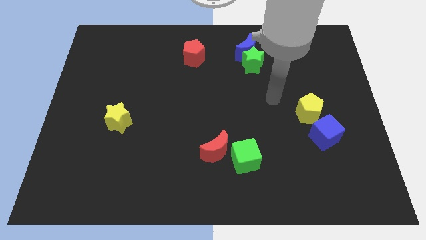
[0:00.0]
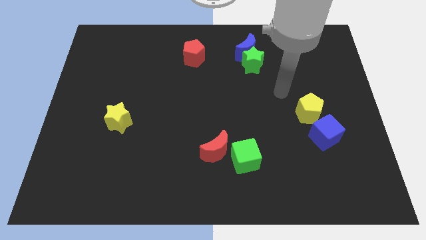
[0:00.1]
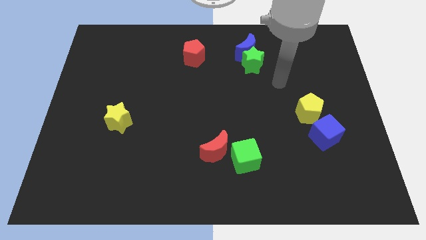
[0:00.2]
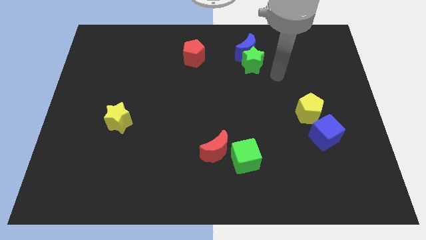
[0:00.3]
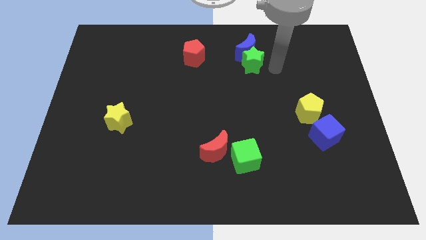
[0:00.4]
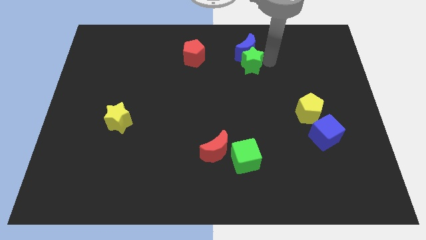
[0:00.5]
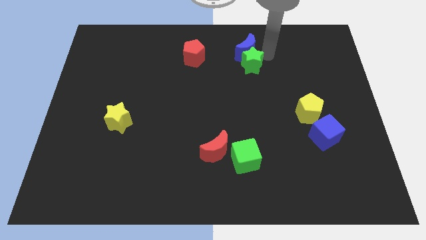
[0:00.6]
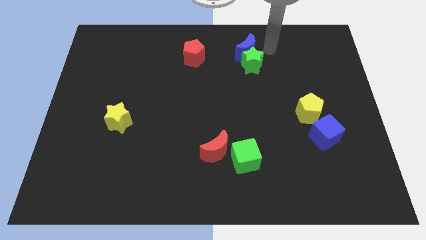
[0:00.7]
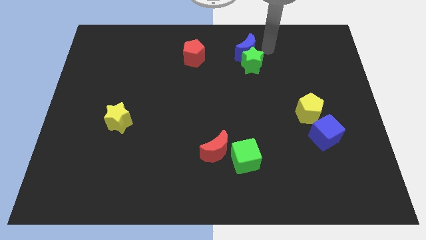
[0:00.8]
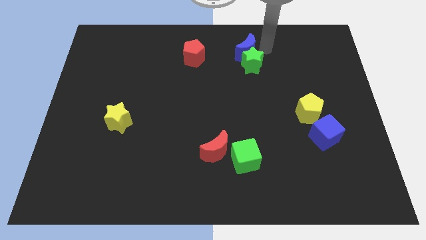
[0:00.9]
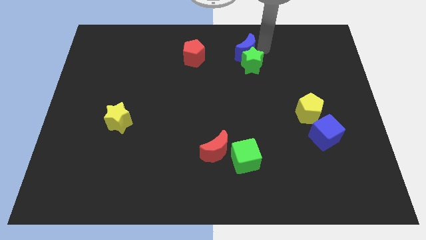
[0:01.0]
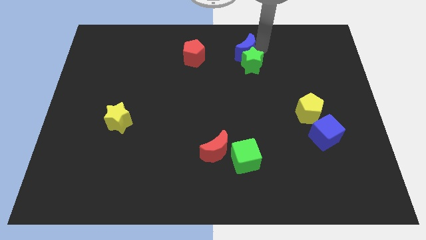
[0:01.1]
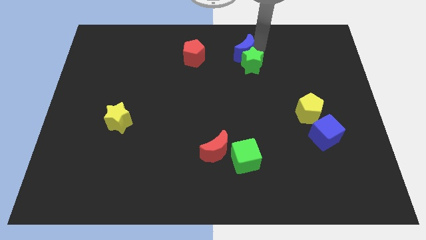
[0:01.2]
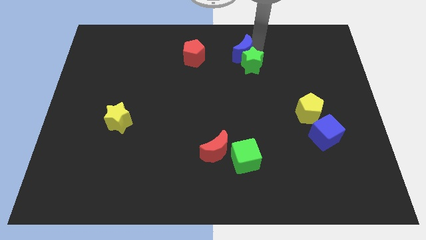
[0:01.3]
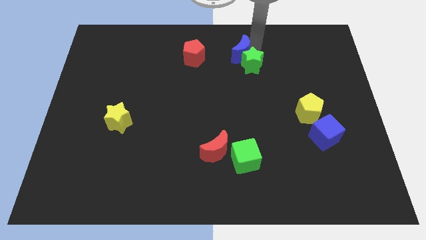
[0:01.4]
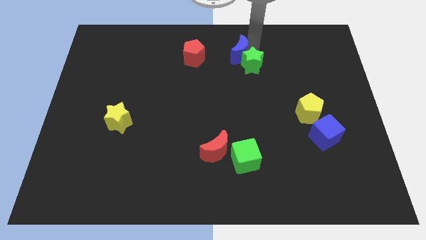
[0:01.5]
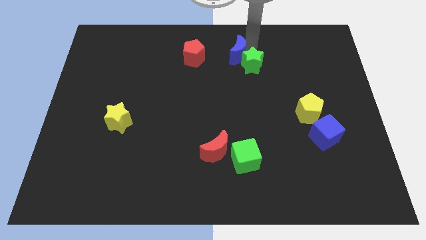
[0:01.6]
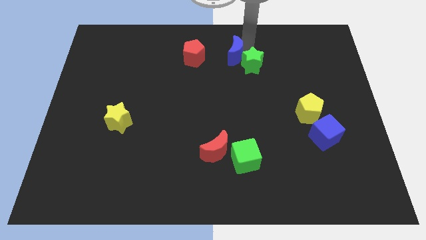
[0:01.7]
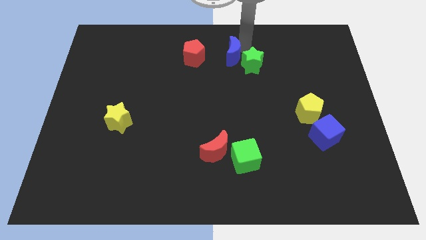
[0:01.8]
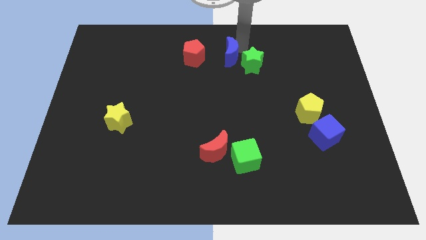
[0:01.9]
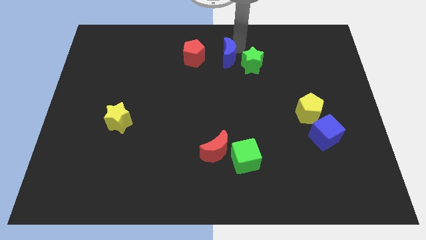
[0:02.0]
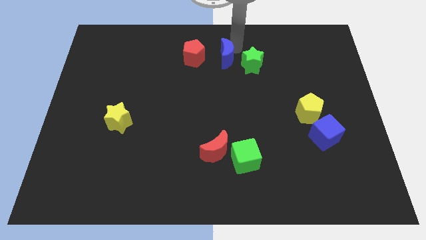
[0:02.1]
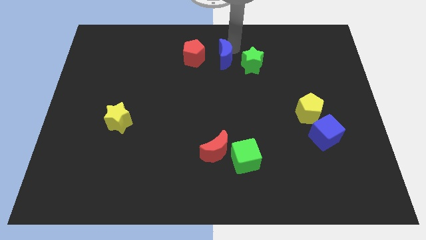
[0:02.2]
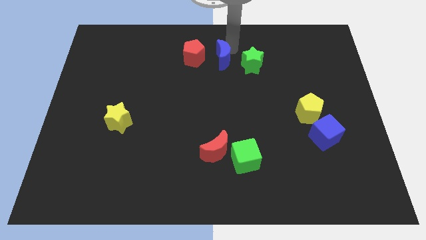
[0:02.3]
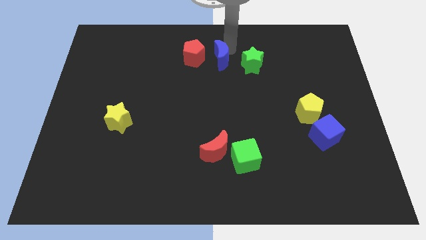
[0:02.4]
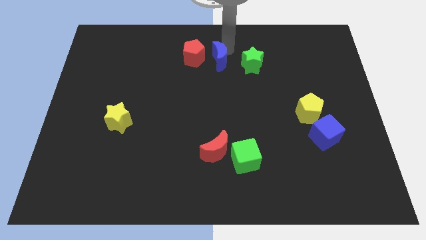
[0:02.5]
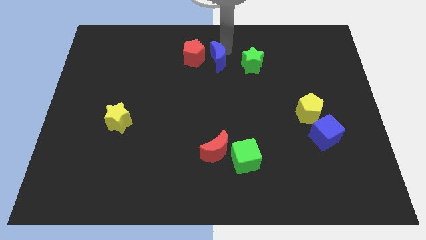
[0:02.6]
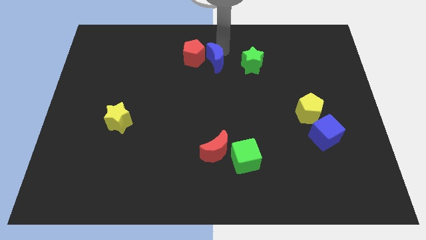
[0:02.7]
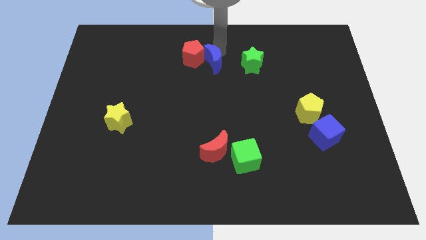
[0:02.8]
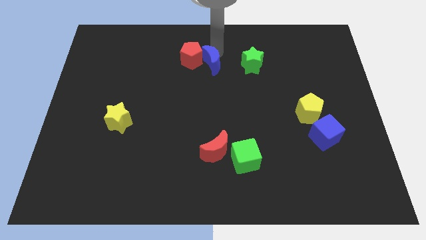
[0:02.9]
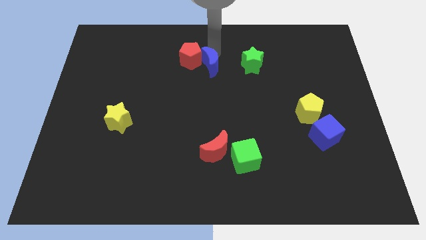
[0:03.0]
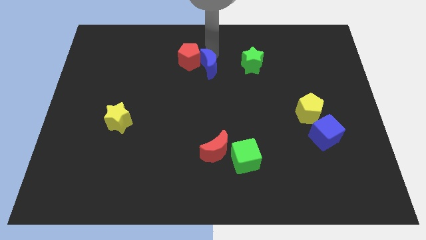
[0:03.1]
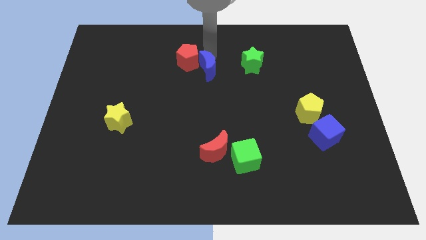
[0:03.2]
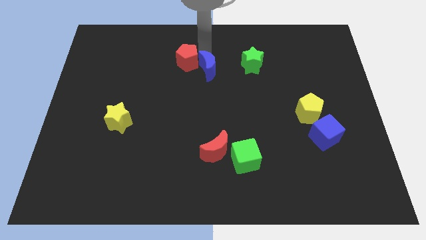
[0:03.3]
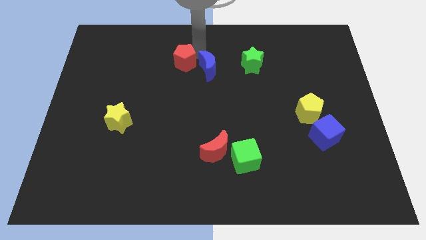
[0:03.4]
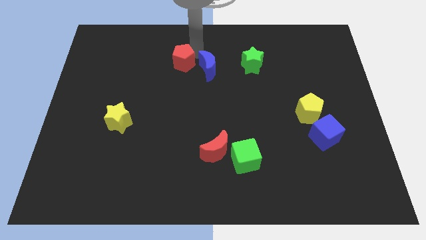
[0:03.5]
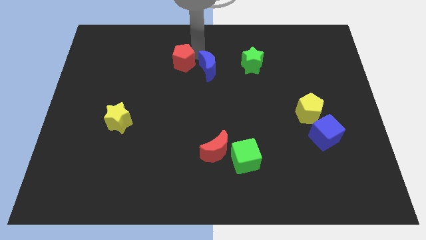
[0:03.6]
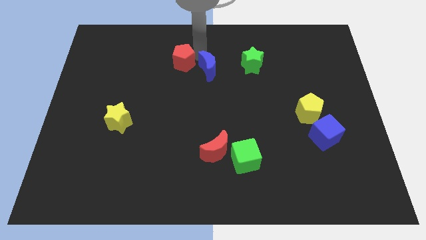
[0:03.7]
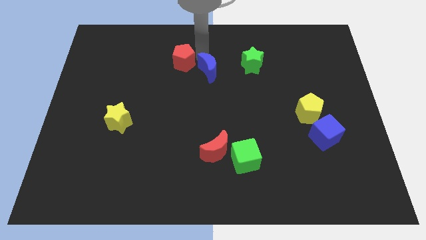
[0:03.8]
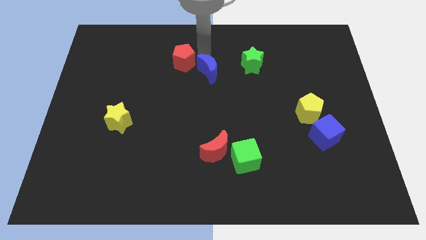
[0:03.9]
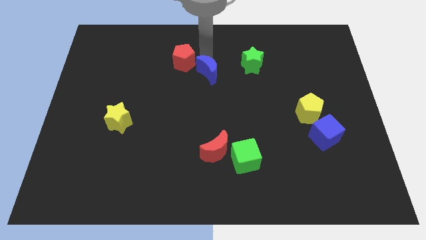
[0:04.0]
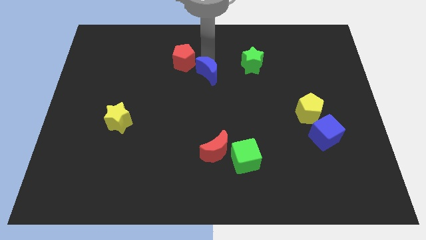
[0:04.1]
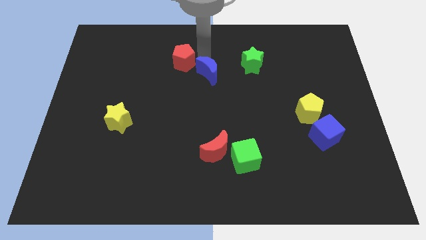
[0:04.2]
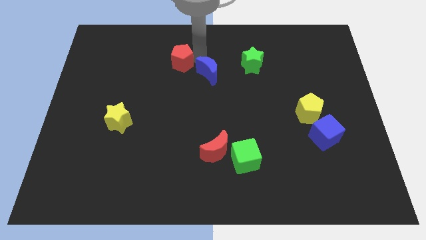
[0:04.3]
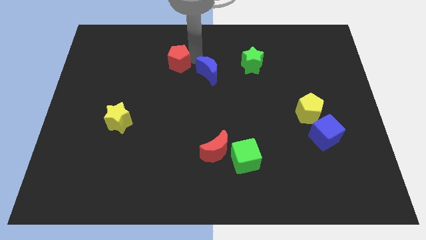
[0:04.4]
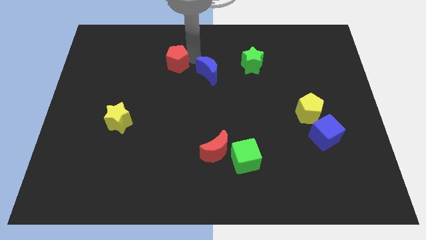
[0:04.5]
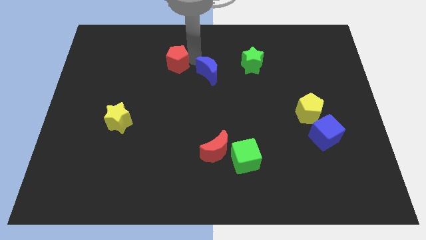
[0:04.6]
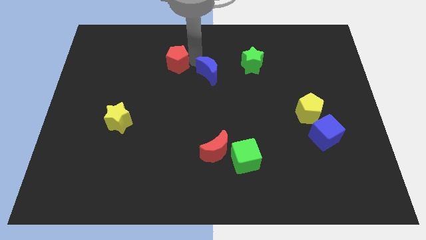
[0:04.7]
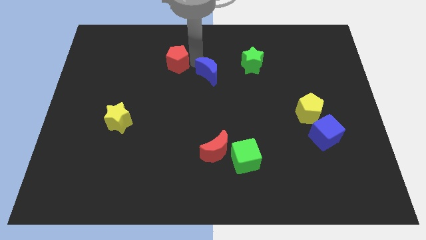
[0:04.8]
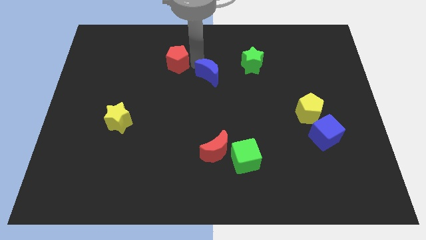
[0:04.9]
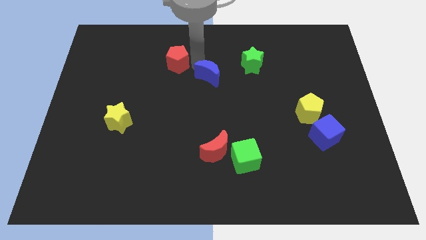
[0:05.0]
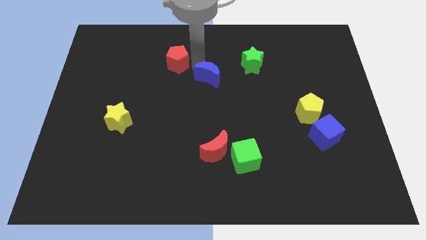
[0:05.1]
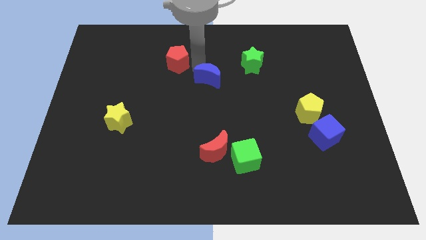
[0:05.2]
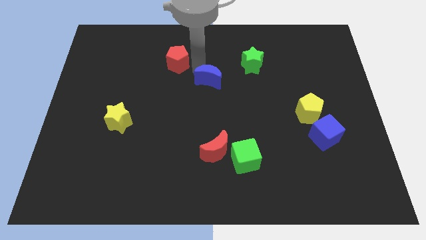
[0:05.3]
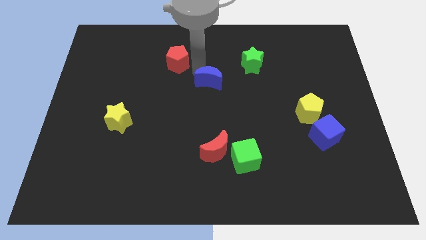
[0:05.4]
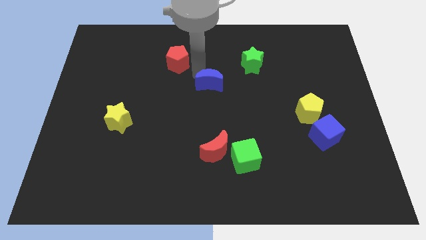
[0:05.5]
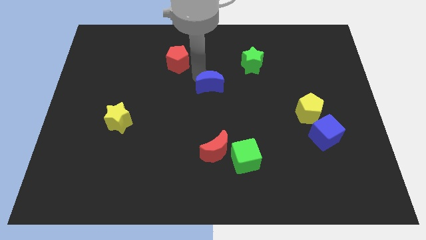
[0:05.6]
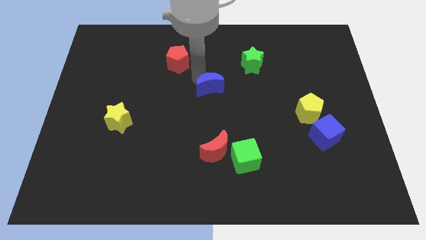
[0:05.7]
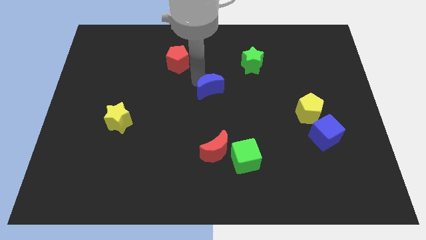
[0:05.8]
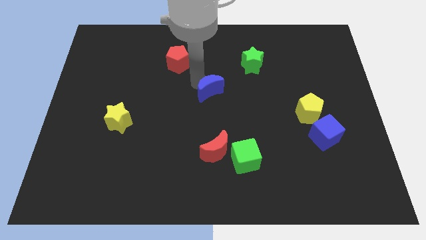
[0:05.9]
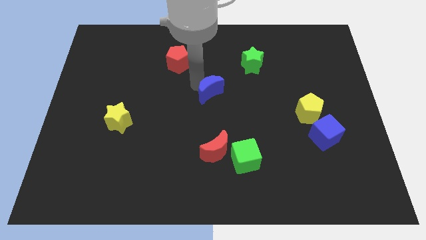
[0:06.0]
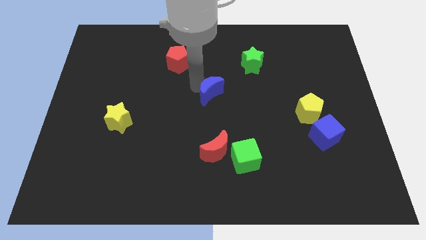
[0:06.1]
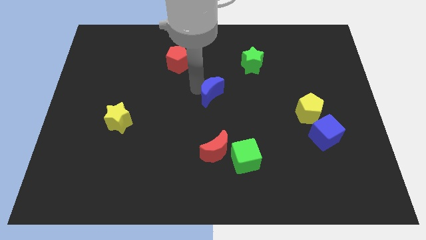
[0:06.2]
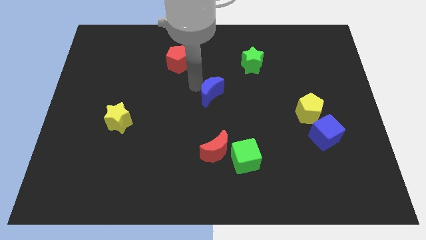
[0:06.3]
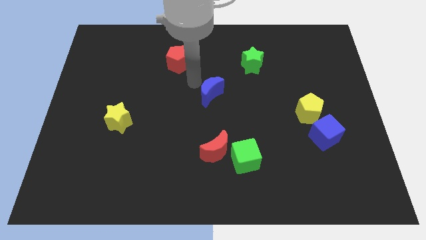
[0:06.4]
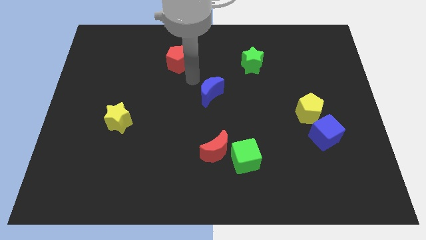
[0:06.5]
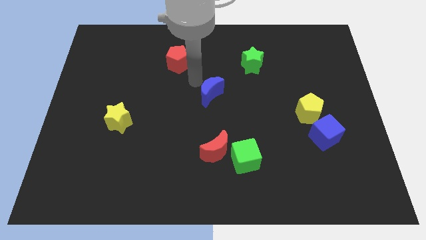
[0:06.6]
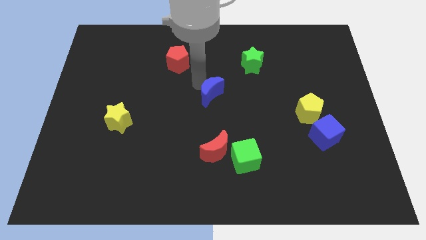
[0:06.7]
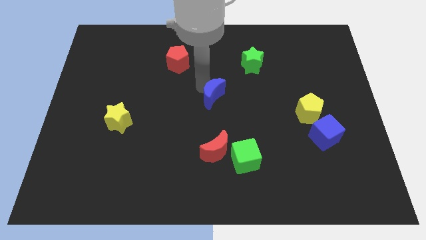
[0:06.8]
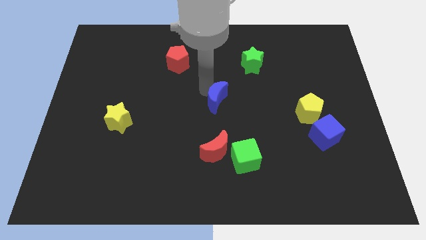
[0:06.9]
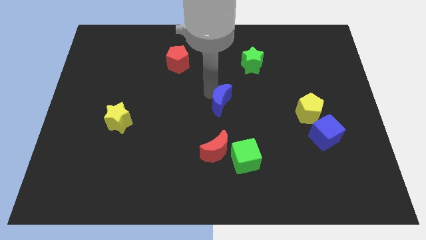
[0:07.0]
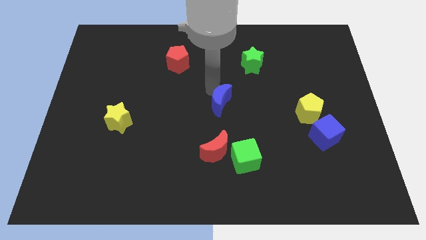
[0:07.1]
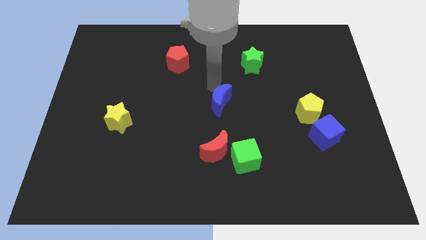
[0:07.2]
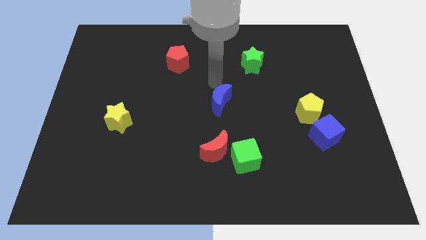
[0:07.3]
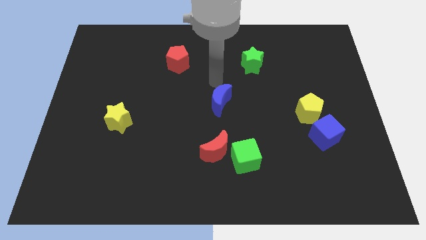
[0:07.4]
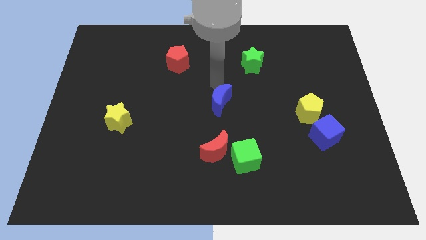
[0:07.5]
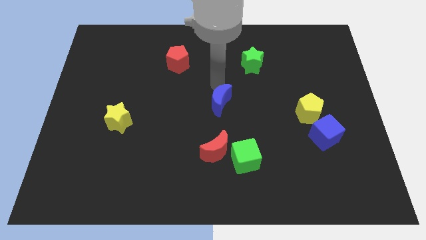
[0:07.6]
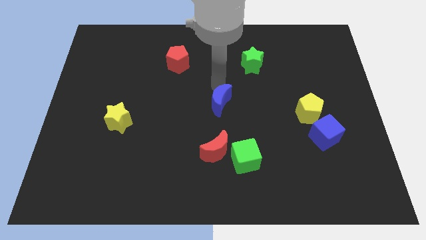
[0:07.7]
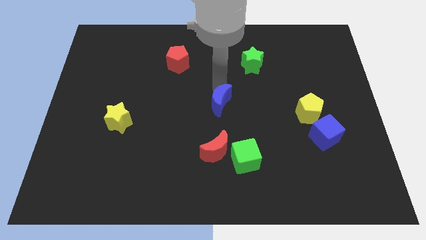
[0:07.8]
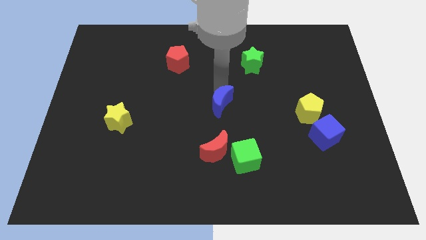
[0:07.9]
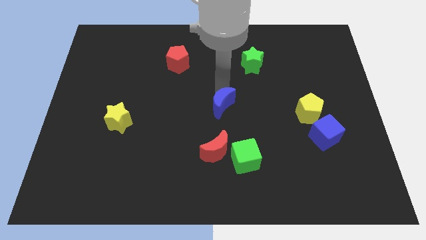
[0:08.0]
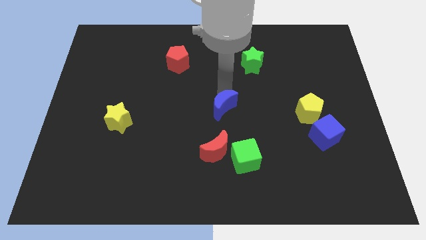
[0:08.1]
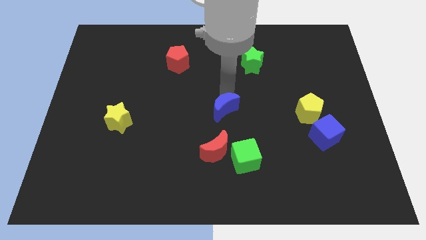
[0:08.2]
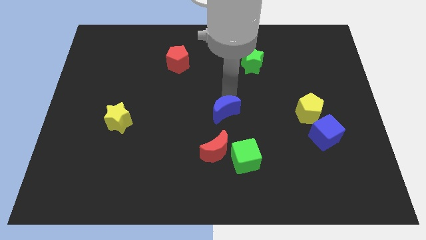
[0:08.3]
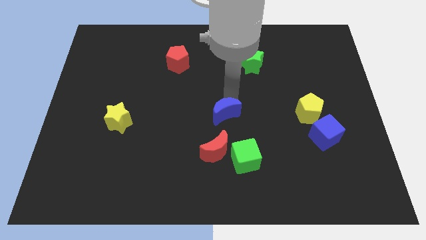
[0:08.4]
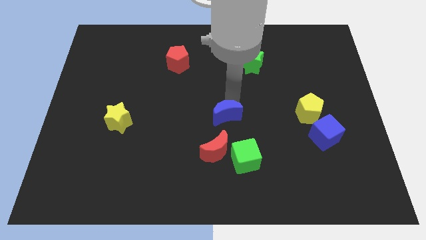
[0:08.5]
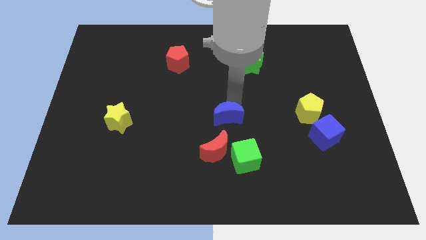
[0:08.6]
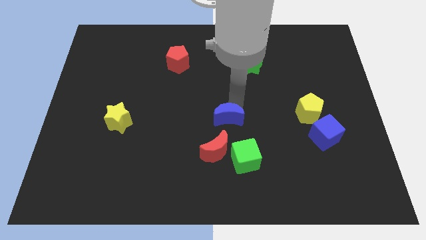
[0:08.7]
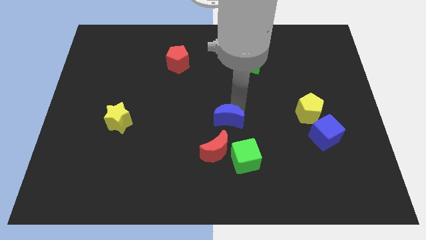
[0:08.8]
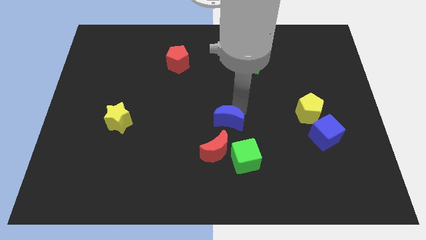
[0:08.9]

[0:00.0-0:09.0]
put the blue moon to the top left of the green cube
